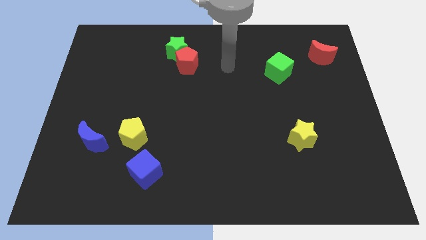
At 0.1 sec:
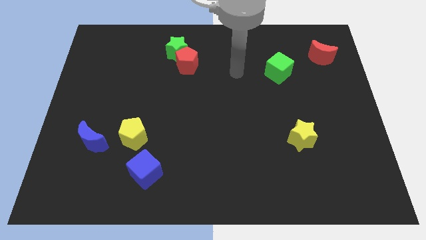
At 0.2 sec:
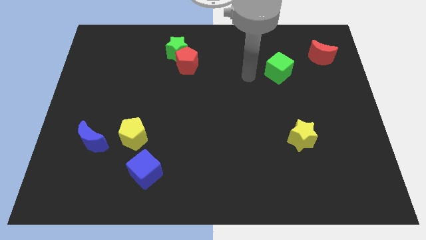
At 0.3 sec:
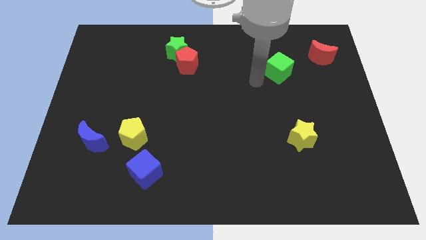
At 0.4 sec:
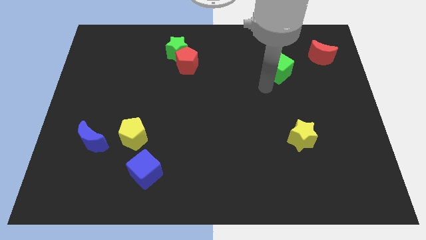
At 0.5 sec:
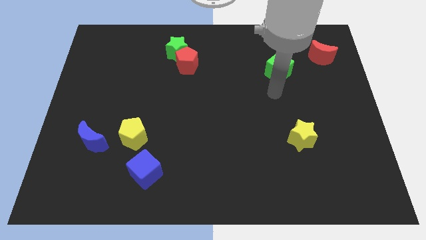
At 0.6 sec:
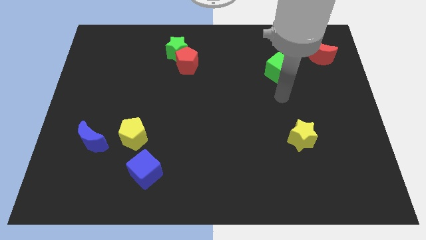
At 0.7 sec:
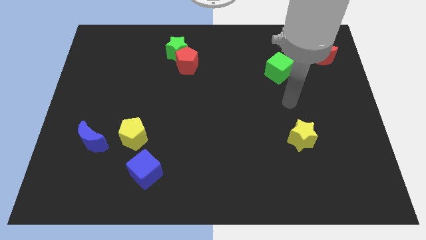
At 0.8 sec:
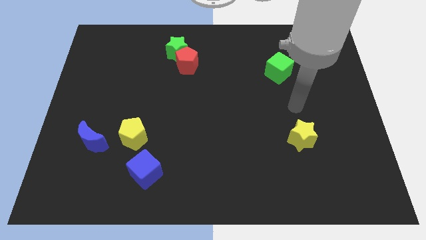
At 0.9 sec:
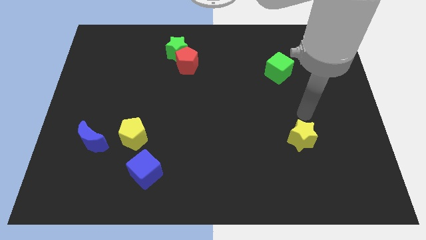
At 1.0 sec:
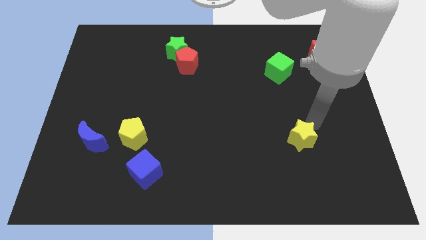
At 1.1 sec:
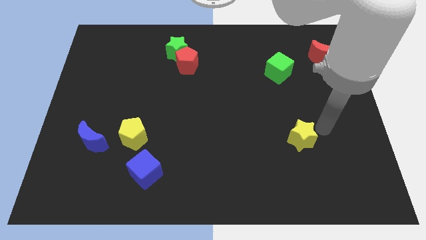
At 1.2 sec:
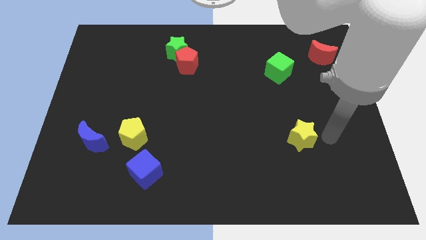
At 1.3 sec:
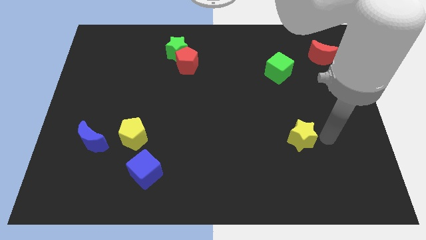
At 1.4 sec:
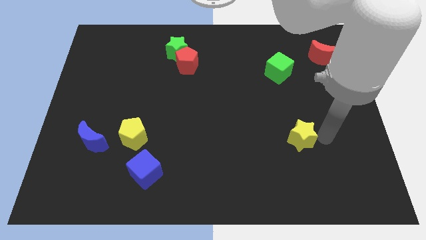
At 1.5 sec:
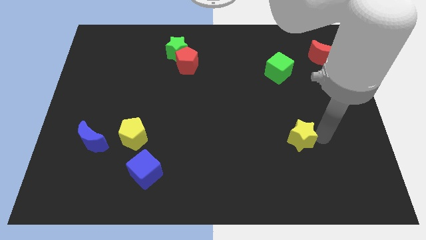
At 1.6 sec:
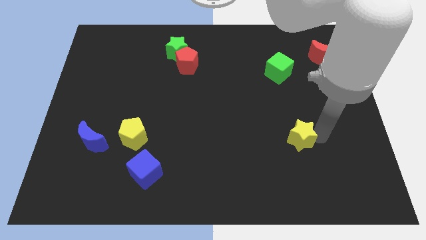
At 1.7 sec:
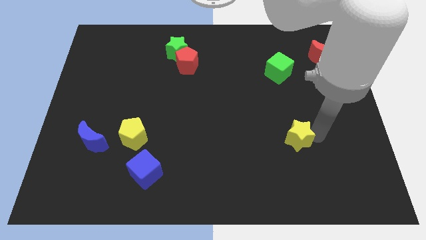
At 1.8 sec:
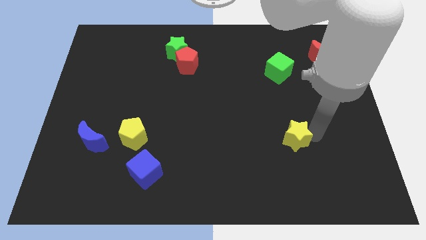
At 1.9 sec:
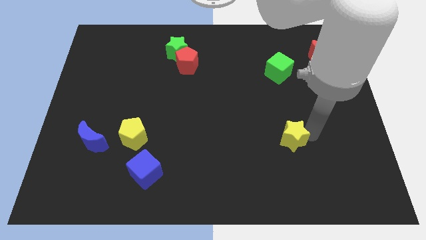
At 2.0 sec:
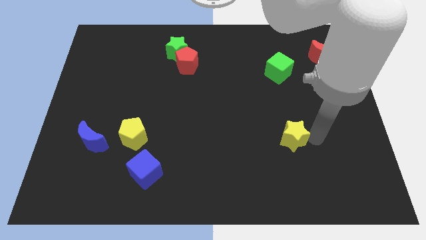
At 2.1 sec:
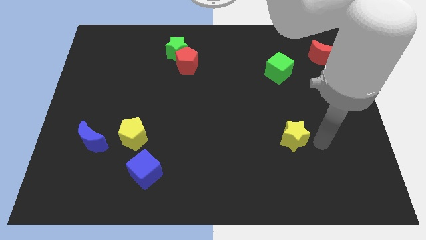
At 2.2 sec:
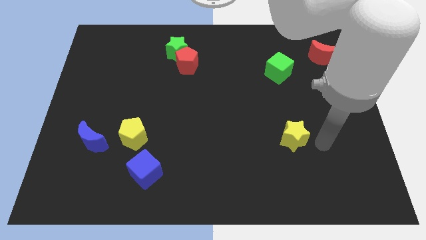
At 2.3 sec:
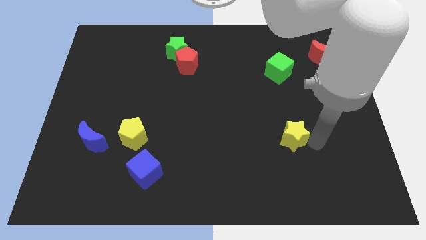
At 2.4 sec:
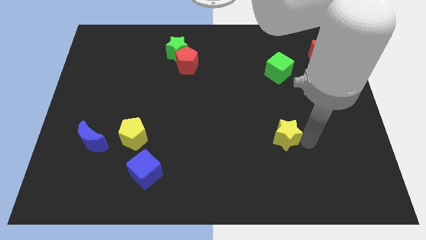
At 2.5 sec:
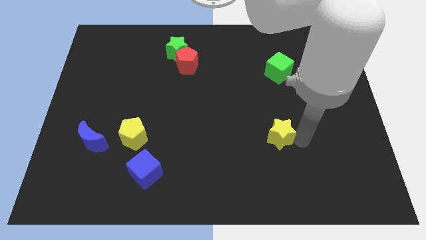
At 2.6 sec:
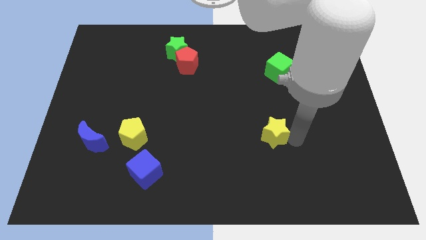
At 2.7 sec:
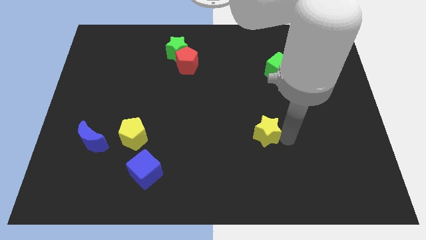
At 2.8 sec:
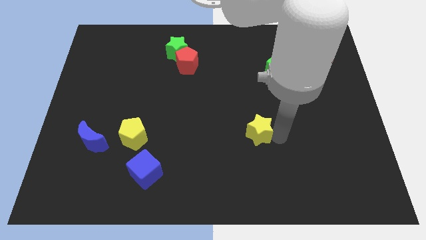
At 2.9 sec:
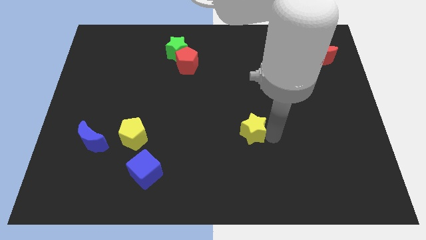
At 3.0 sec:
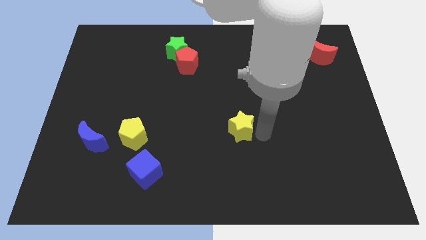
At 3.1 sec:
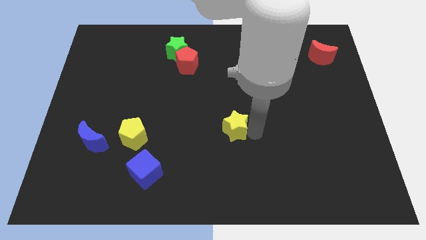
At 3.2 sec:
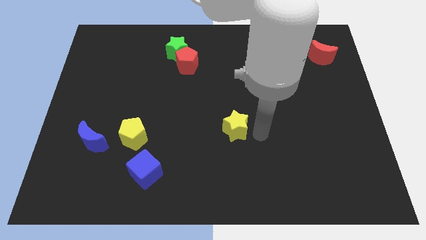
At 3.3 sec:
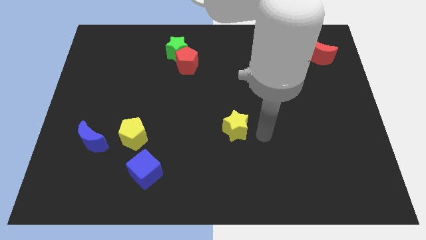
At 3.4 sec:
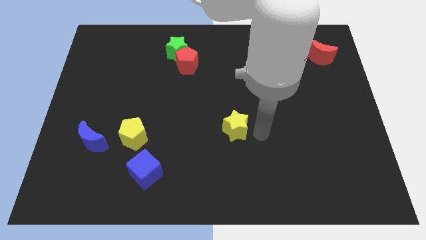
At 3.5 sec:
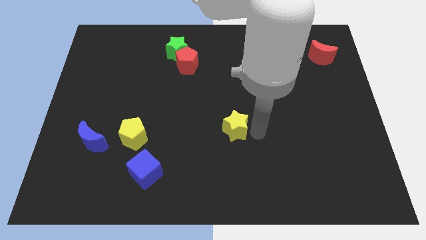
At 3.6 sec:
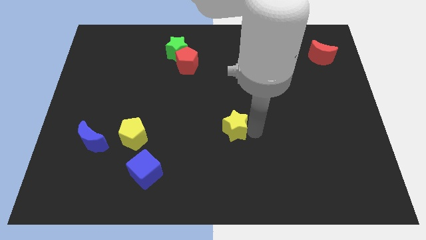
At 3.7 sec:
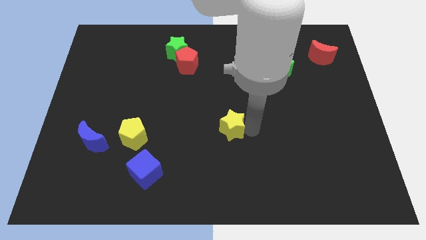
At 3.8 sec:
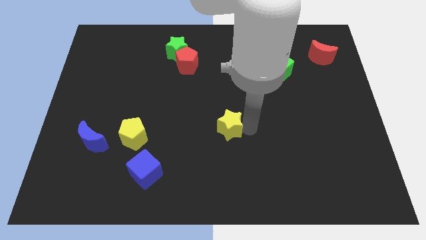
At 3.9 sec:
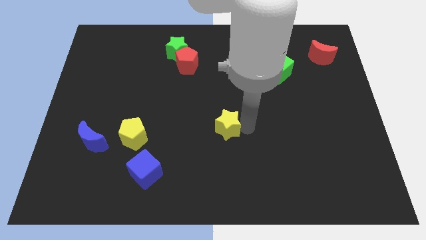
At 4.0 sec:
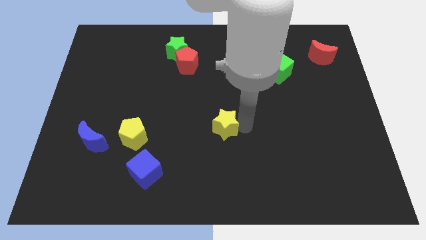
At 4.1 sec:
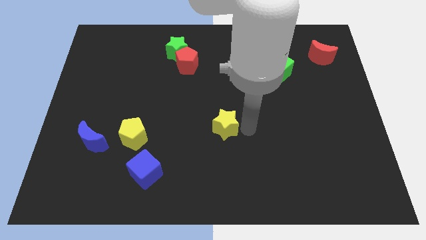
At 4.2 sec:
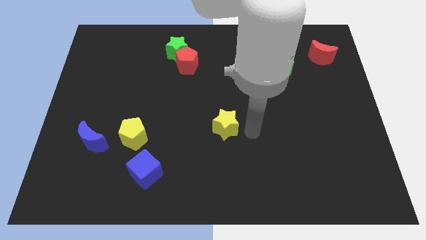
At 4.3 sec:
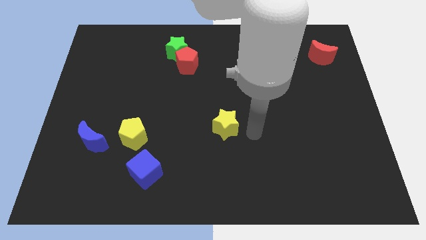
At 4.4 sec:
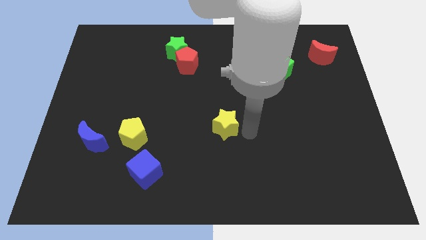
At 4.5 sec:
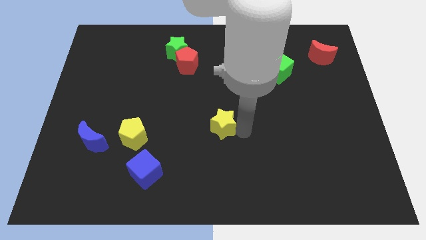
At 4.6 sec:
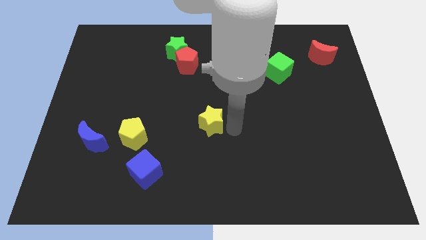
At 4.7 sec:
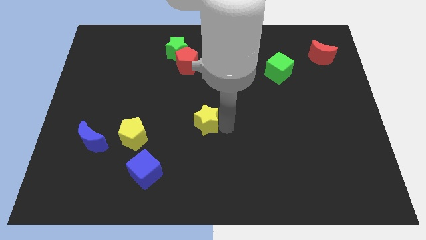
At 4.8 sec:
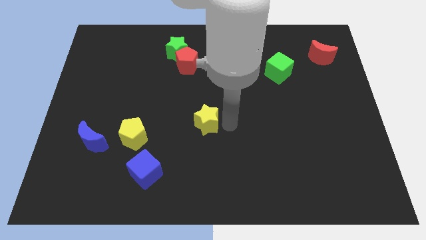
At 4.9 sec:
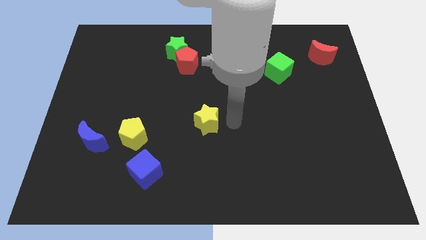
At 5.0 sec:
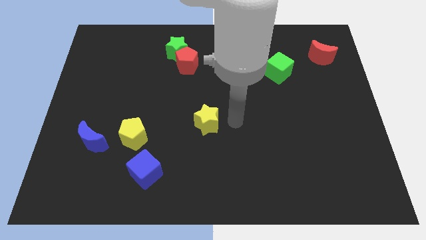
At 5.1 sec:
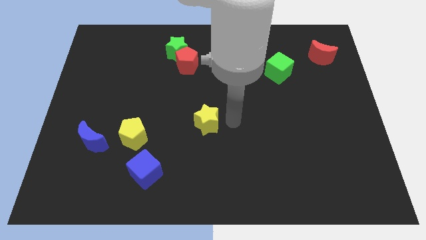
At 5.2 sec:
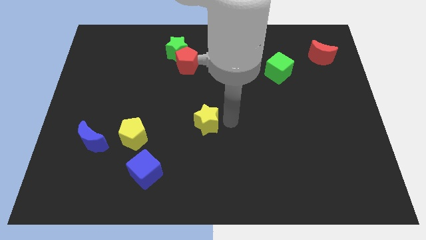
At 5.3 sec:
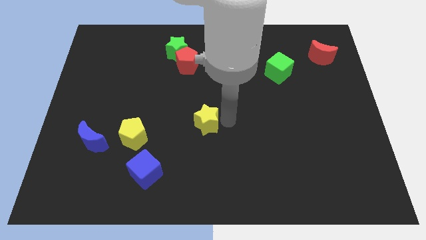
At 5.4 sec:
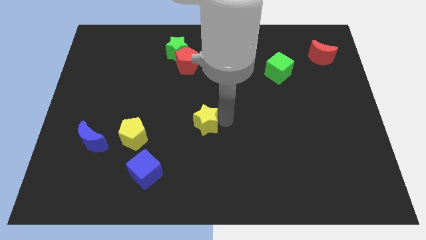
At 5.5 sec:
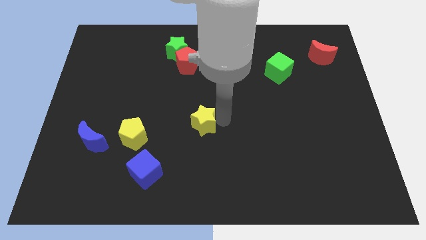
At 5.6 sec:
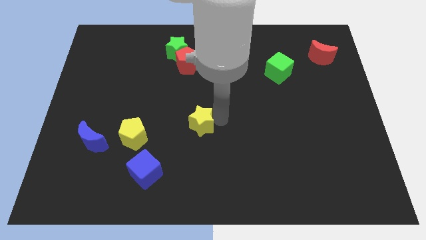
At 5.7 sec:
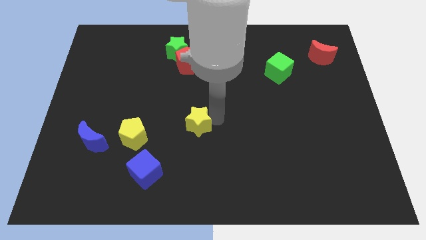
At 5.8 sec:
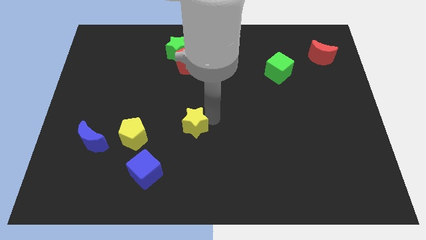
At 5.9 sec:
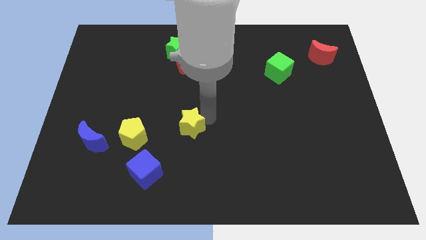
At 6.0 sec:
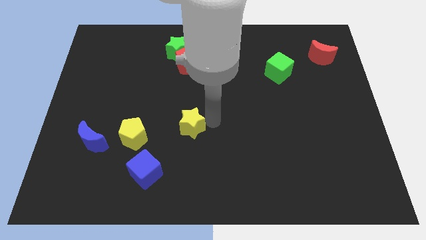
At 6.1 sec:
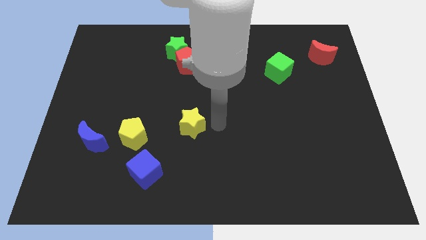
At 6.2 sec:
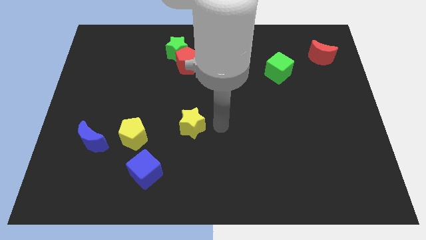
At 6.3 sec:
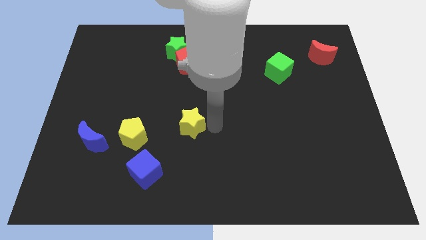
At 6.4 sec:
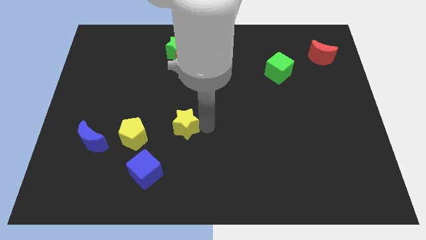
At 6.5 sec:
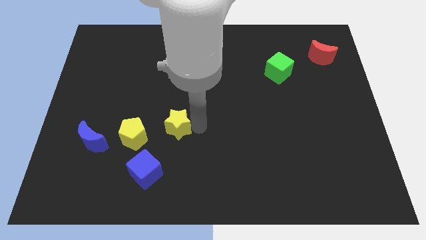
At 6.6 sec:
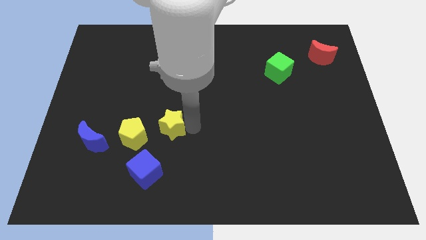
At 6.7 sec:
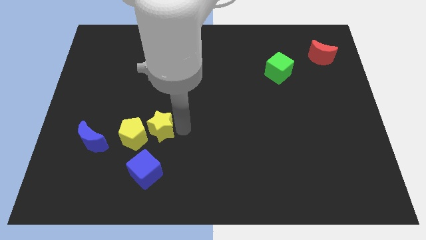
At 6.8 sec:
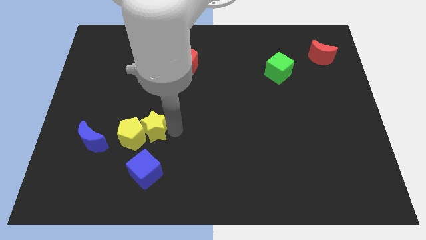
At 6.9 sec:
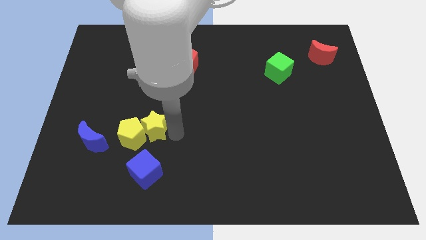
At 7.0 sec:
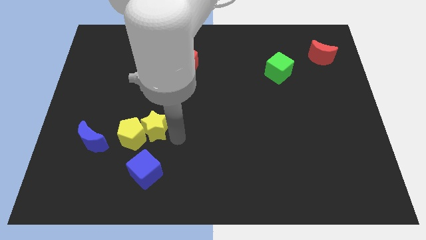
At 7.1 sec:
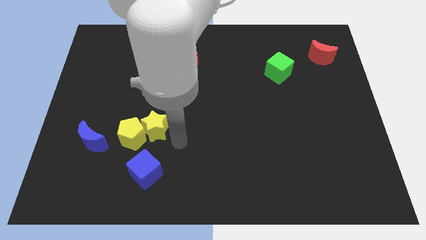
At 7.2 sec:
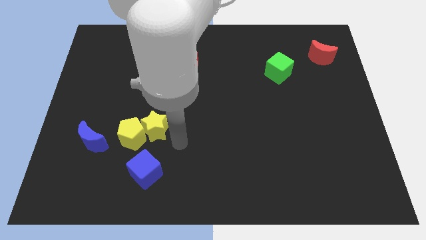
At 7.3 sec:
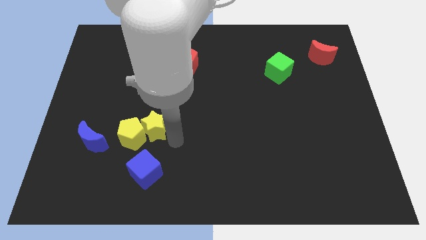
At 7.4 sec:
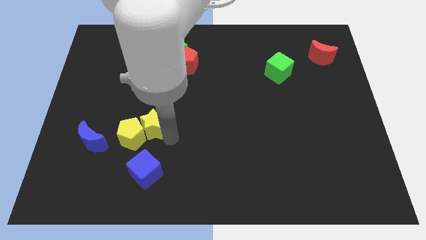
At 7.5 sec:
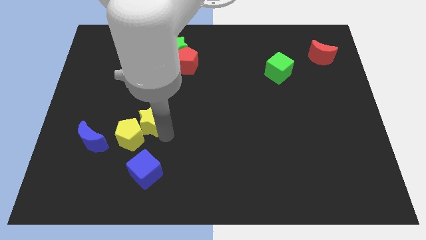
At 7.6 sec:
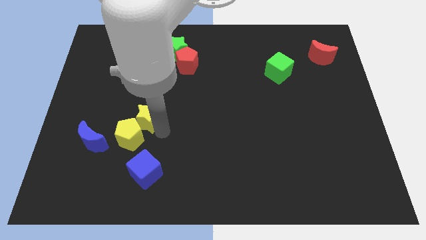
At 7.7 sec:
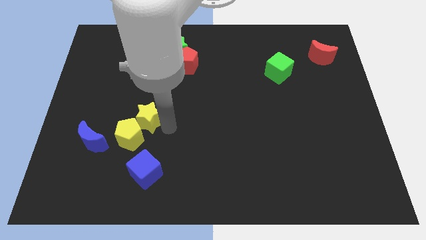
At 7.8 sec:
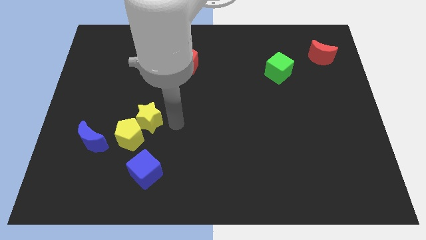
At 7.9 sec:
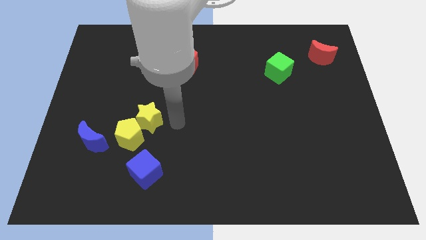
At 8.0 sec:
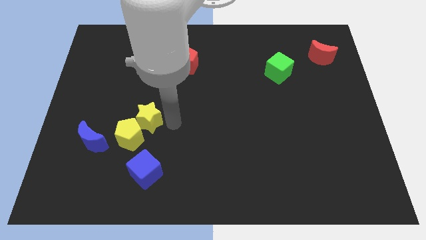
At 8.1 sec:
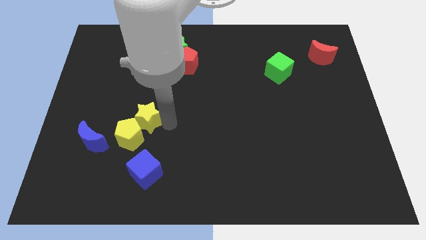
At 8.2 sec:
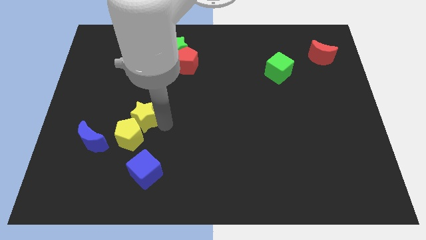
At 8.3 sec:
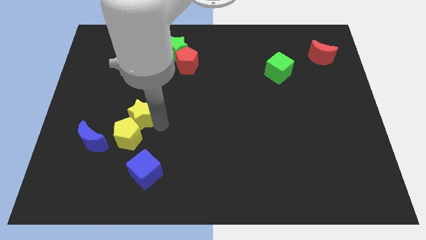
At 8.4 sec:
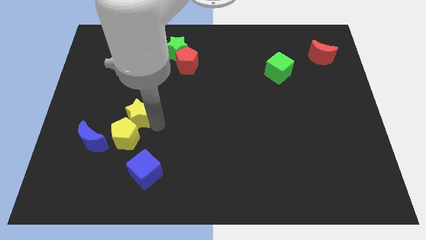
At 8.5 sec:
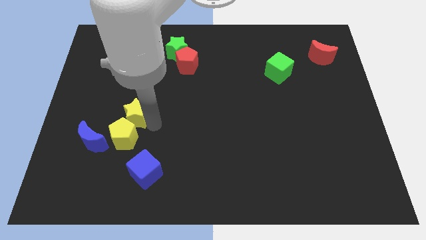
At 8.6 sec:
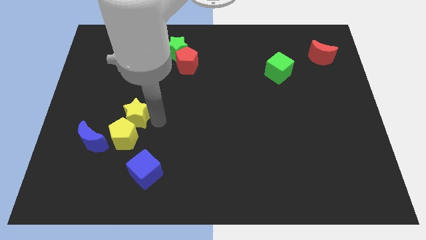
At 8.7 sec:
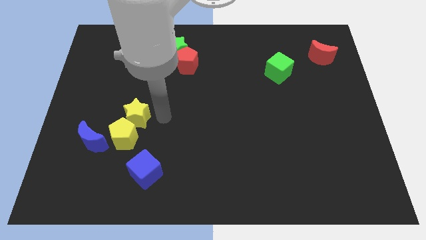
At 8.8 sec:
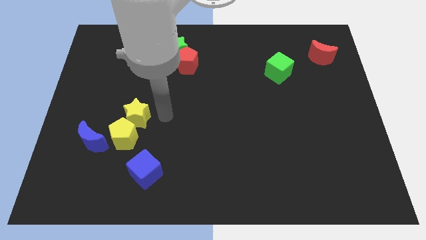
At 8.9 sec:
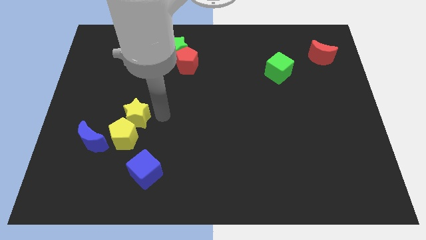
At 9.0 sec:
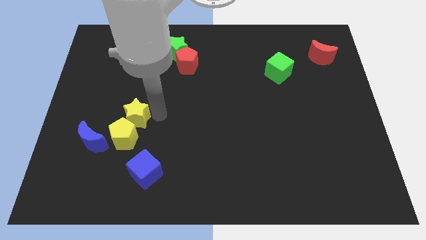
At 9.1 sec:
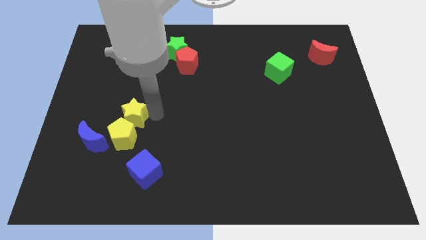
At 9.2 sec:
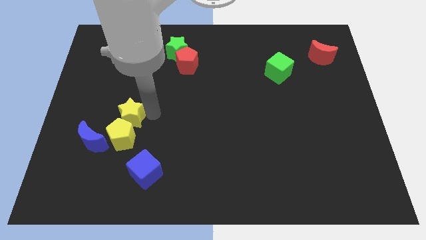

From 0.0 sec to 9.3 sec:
push the yellow star diagonally up and to the left of the yellow pentagon
